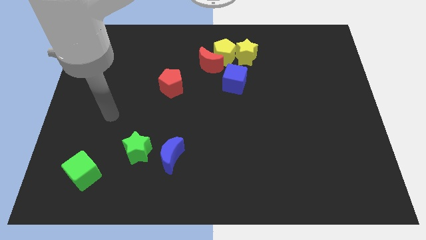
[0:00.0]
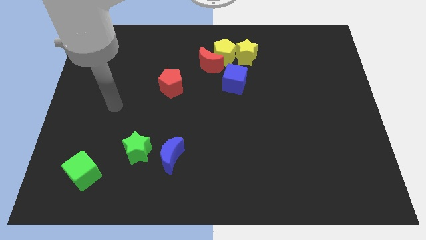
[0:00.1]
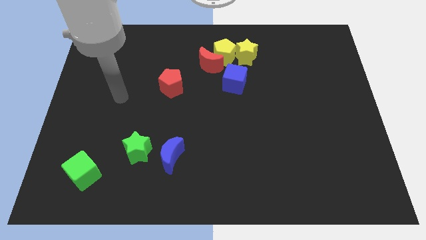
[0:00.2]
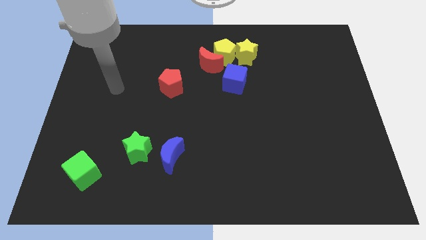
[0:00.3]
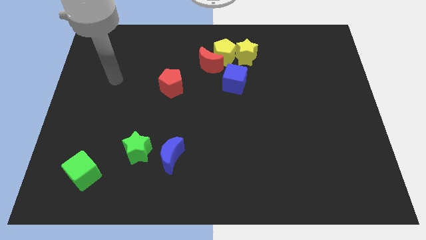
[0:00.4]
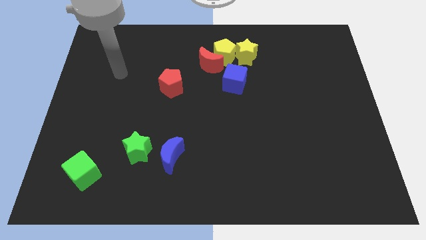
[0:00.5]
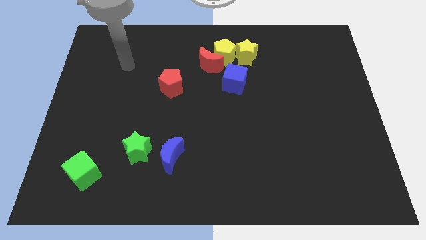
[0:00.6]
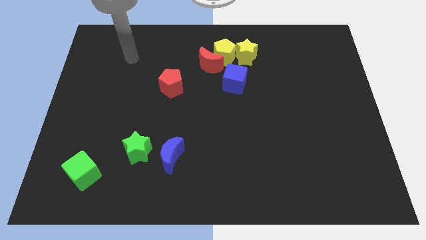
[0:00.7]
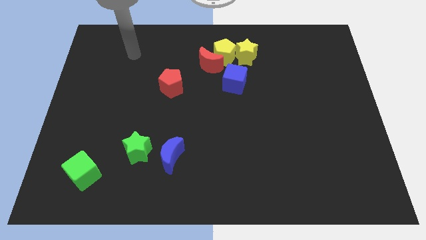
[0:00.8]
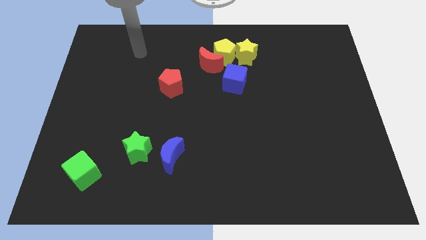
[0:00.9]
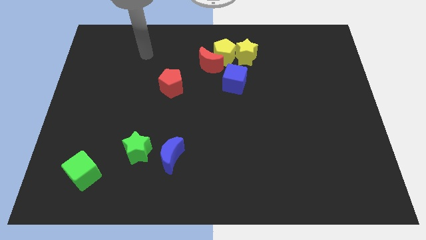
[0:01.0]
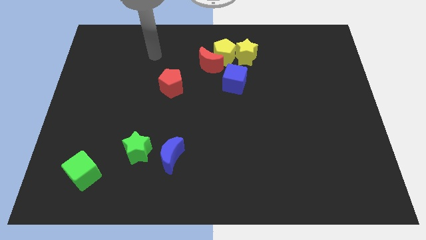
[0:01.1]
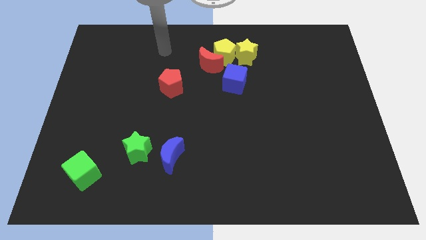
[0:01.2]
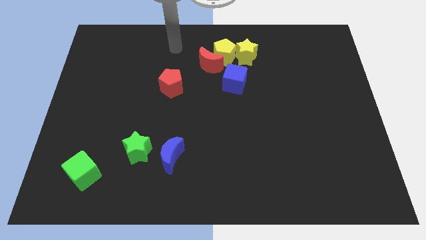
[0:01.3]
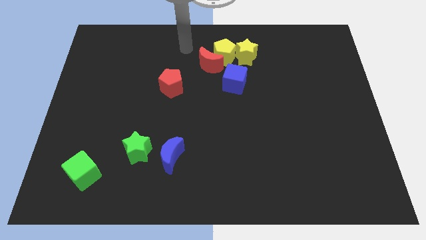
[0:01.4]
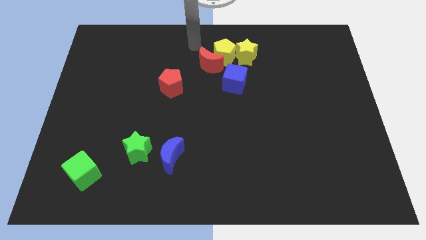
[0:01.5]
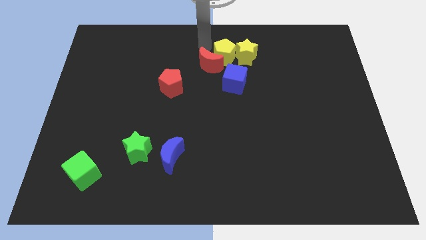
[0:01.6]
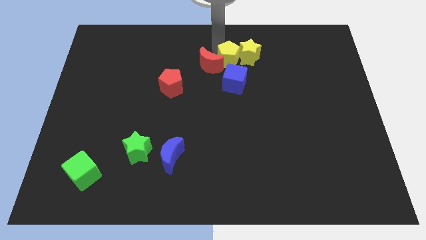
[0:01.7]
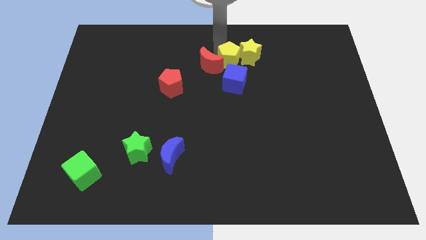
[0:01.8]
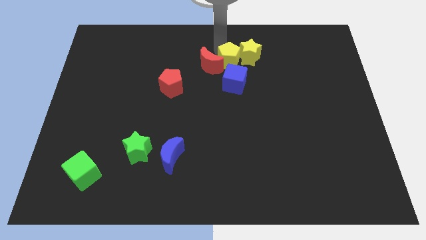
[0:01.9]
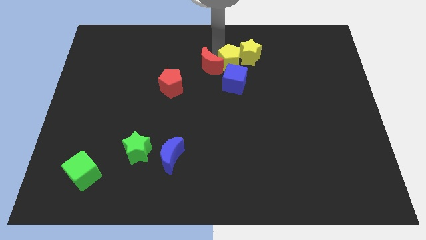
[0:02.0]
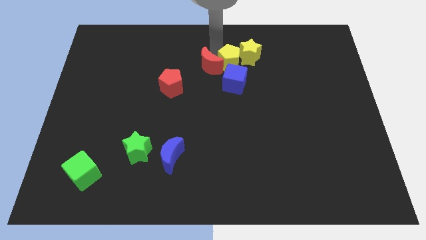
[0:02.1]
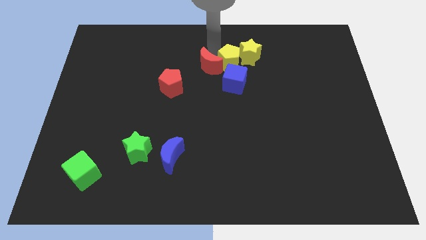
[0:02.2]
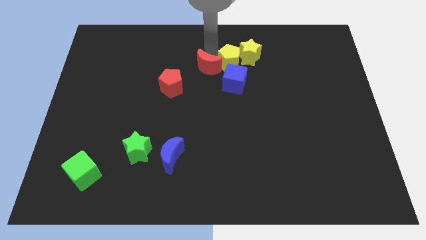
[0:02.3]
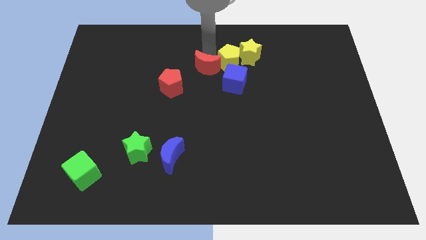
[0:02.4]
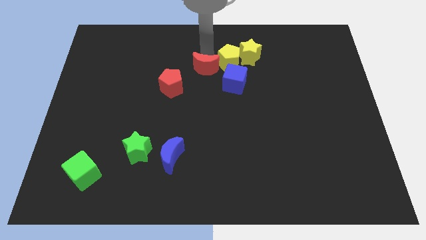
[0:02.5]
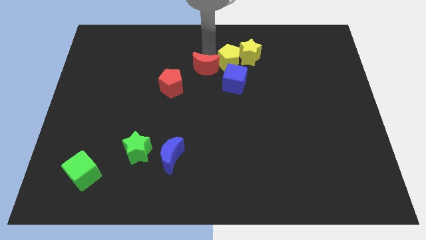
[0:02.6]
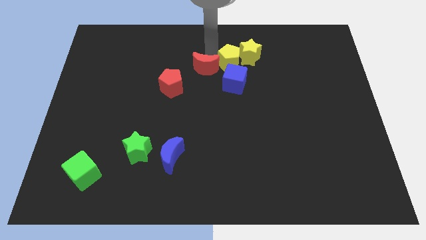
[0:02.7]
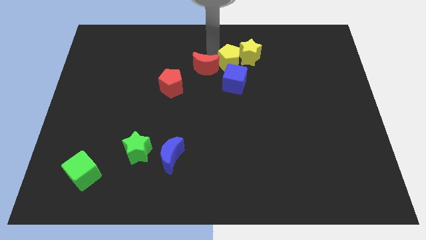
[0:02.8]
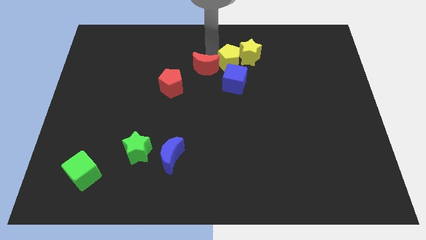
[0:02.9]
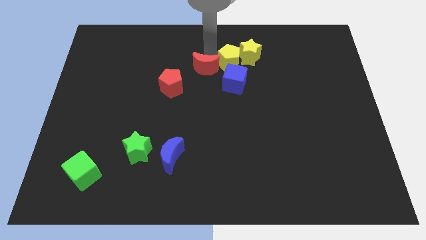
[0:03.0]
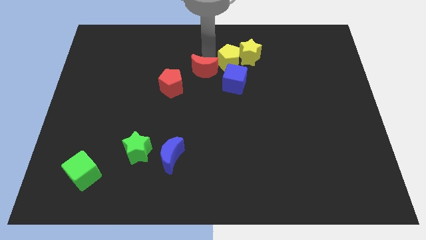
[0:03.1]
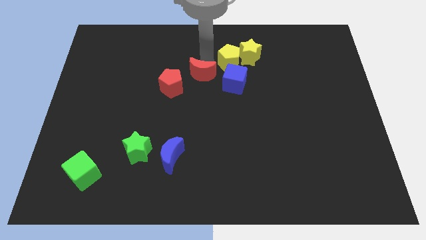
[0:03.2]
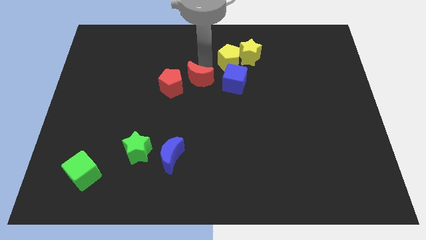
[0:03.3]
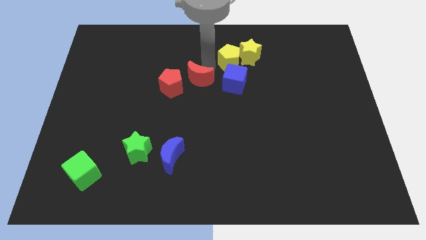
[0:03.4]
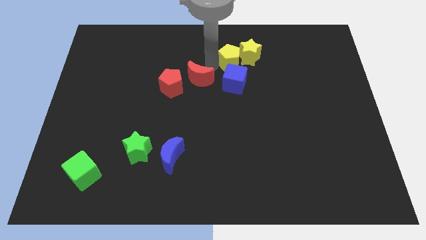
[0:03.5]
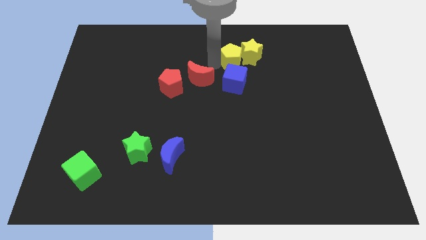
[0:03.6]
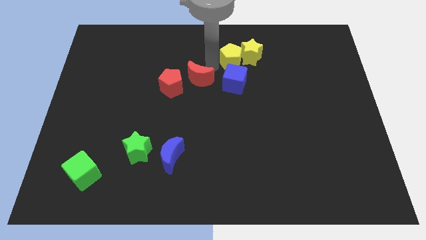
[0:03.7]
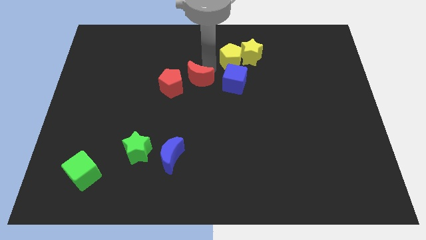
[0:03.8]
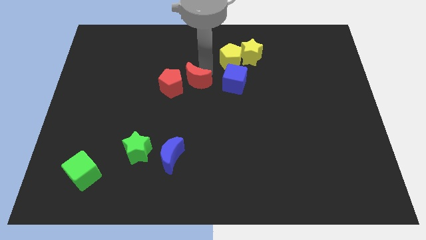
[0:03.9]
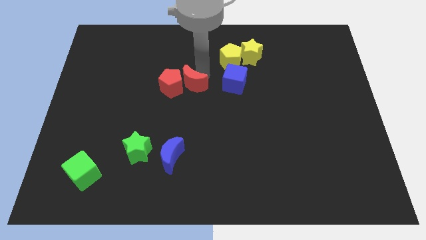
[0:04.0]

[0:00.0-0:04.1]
push the red moon a little bit down and left

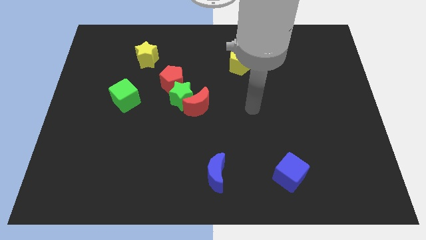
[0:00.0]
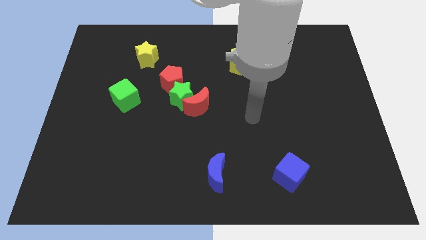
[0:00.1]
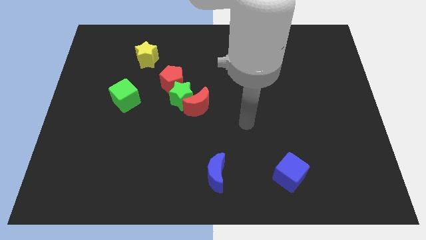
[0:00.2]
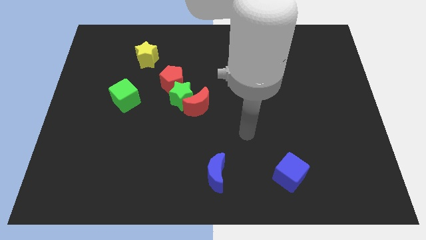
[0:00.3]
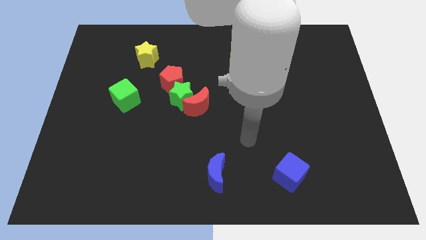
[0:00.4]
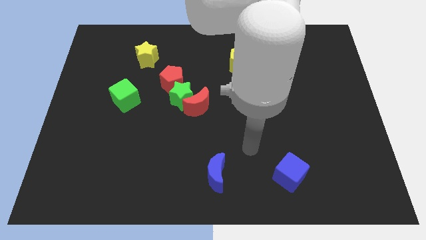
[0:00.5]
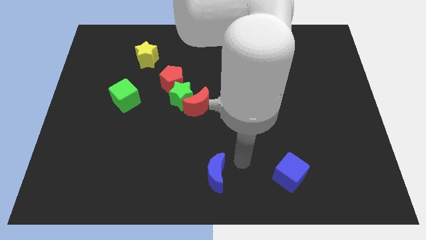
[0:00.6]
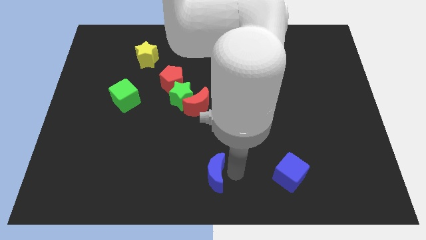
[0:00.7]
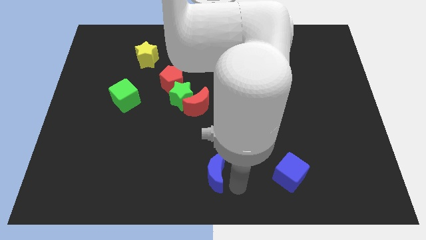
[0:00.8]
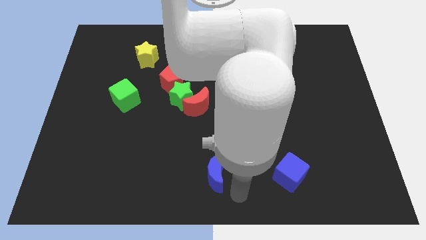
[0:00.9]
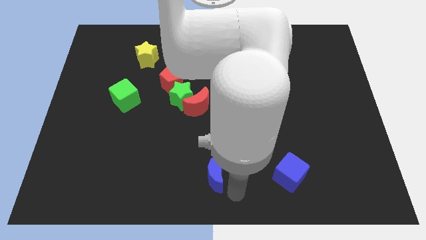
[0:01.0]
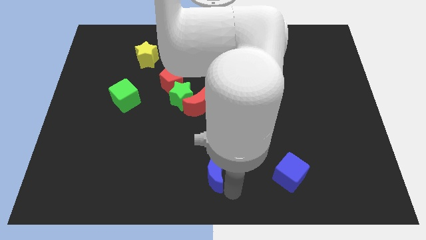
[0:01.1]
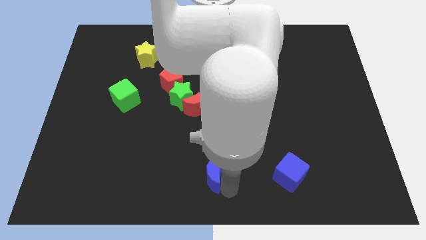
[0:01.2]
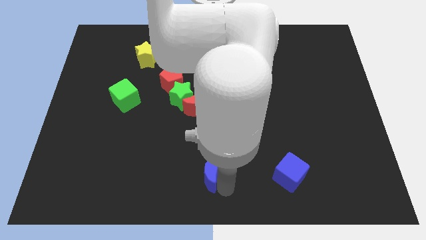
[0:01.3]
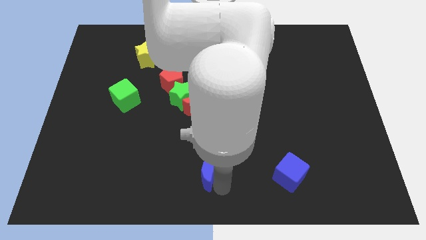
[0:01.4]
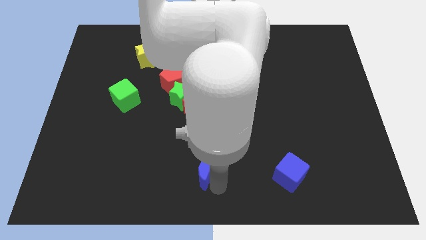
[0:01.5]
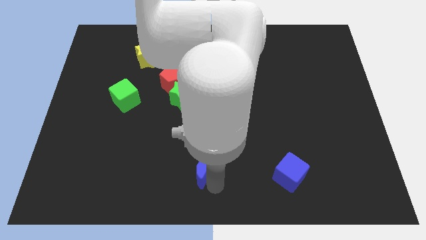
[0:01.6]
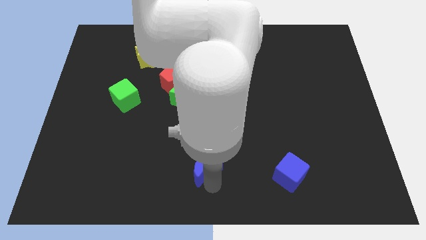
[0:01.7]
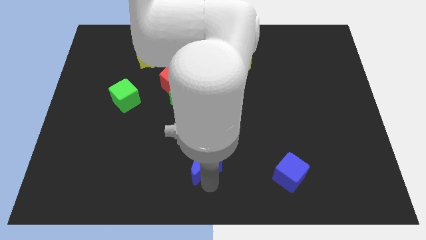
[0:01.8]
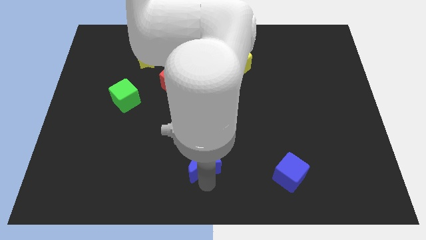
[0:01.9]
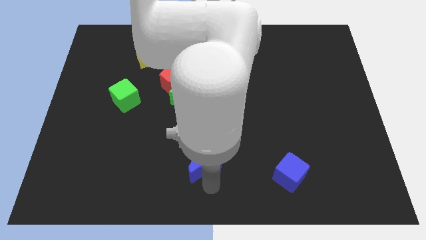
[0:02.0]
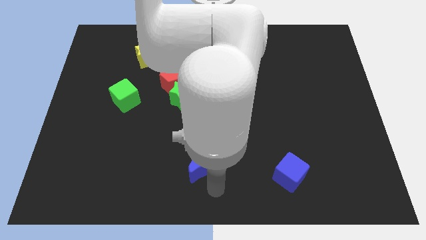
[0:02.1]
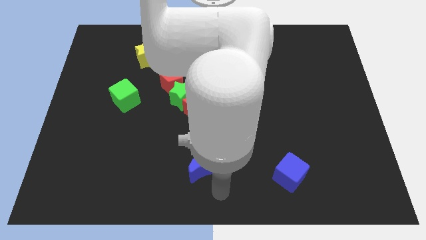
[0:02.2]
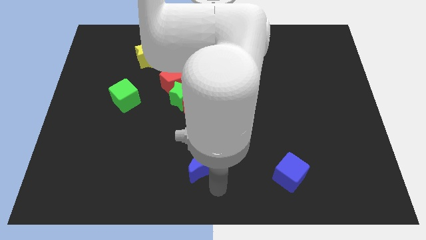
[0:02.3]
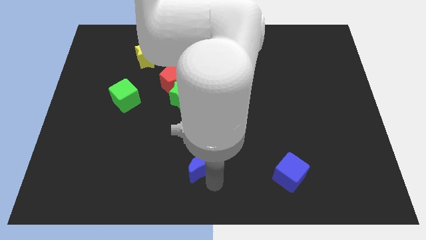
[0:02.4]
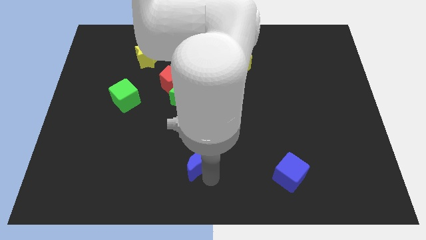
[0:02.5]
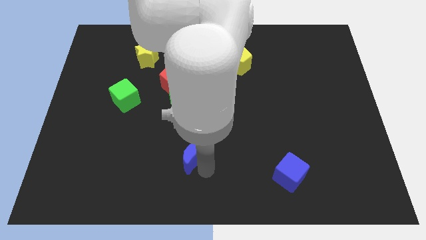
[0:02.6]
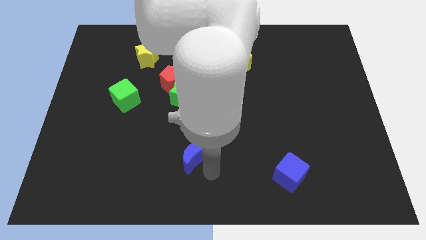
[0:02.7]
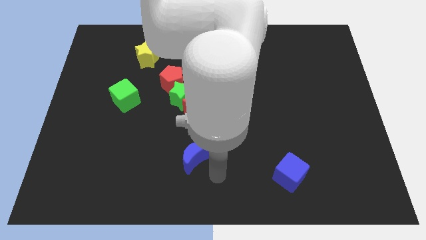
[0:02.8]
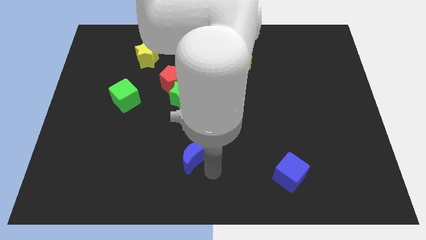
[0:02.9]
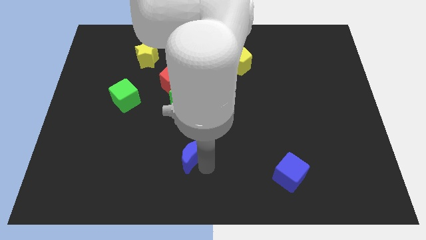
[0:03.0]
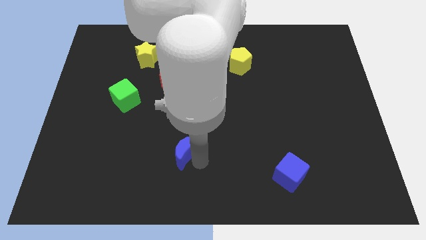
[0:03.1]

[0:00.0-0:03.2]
move the blue moon slightly up and then to the left

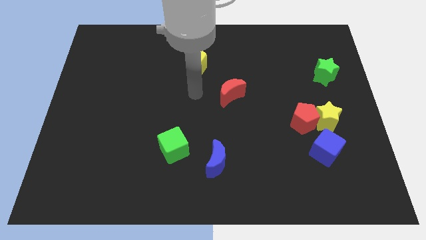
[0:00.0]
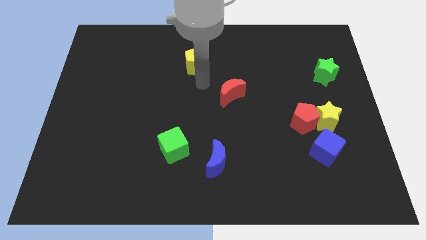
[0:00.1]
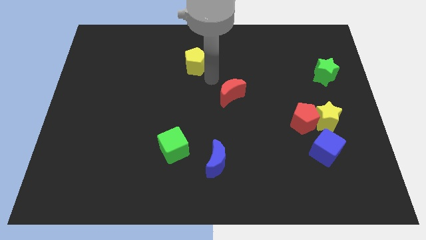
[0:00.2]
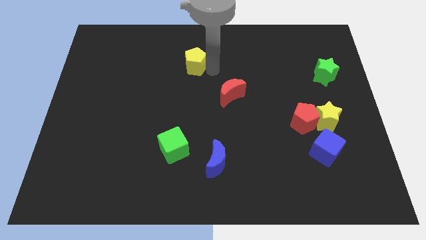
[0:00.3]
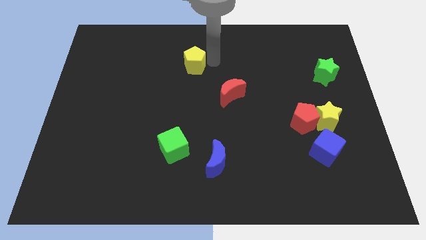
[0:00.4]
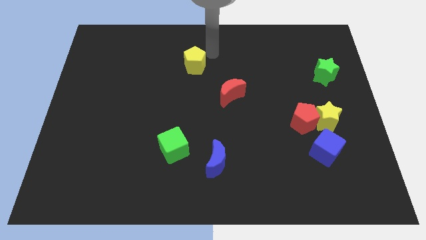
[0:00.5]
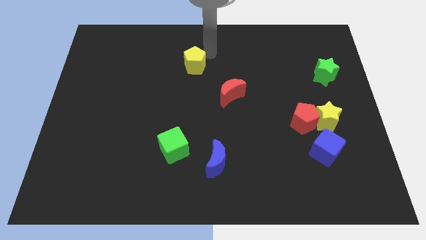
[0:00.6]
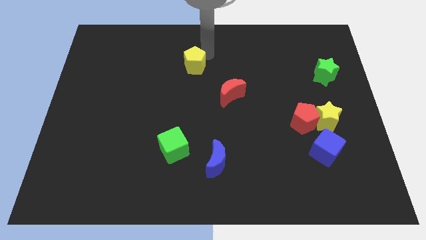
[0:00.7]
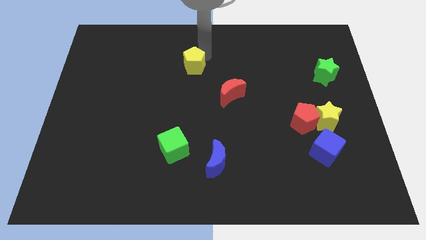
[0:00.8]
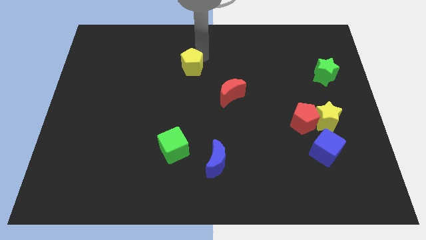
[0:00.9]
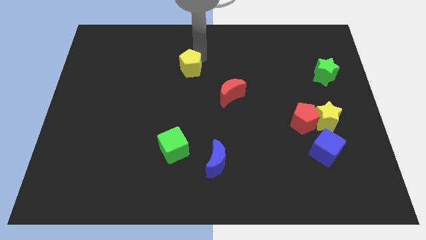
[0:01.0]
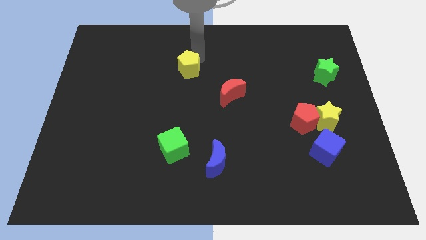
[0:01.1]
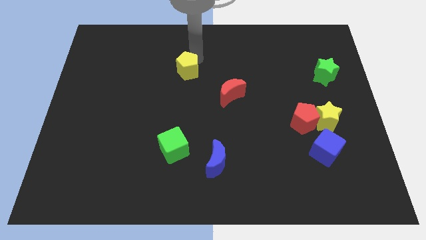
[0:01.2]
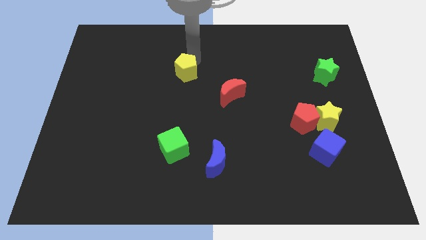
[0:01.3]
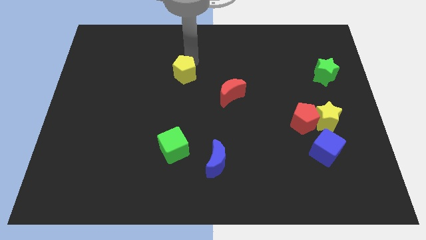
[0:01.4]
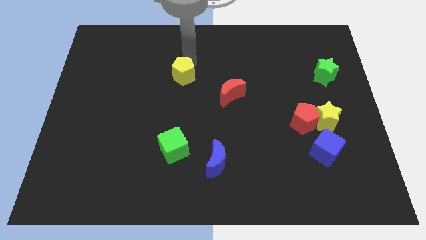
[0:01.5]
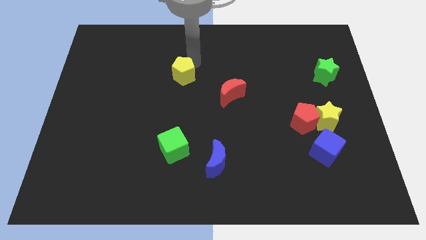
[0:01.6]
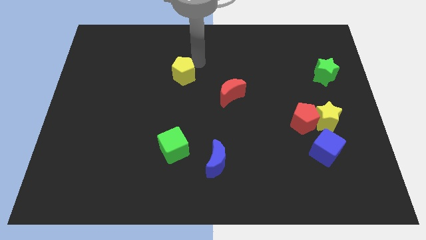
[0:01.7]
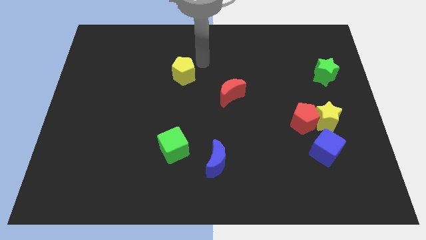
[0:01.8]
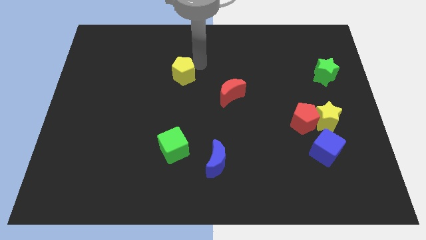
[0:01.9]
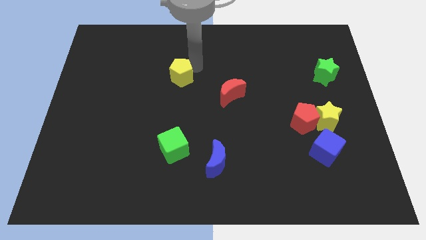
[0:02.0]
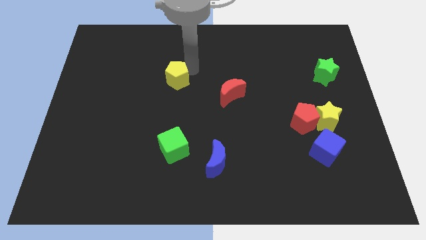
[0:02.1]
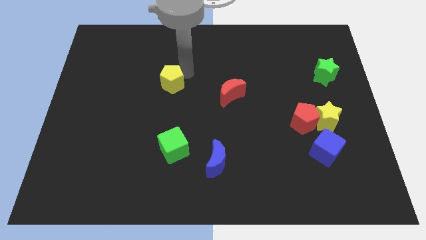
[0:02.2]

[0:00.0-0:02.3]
slightly move the yellow pentagon downwards and to the left
